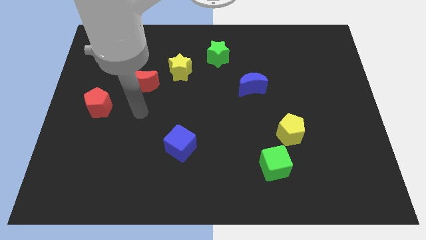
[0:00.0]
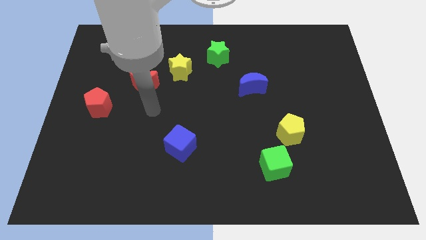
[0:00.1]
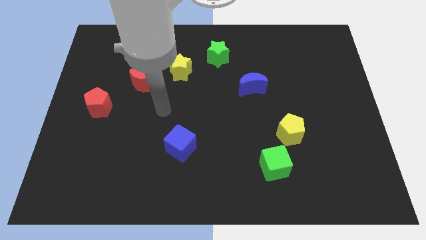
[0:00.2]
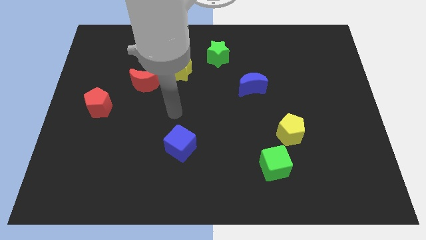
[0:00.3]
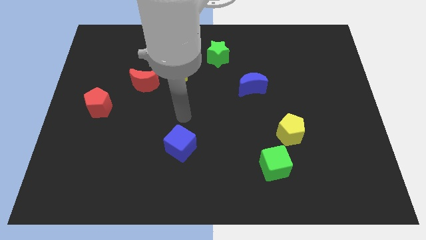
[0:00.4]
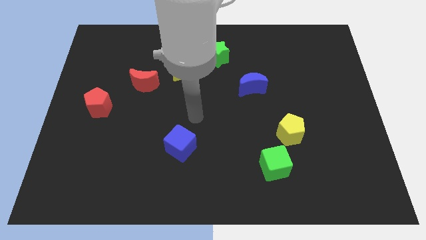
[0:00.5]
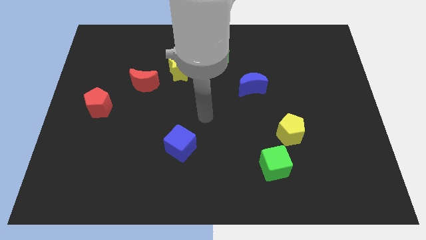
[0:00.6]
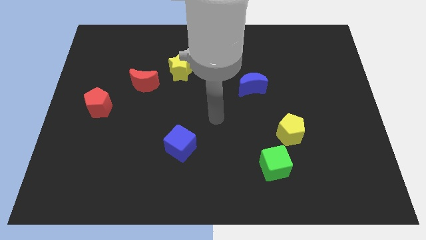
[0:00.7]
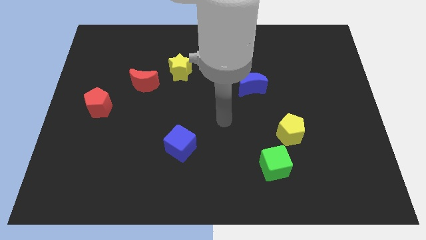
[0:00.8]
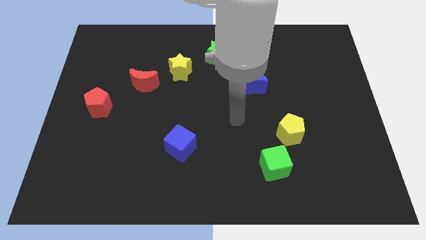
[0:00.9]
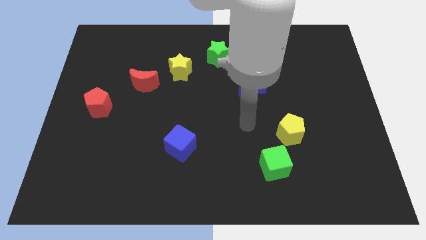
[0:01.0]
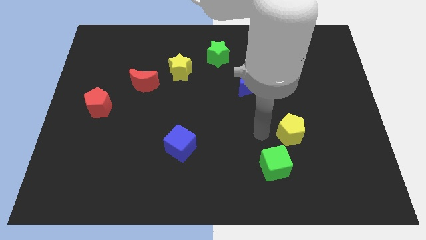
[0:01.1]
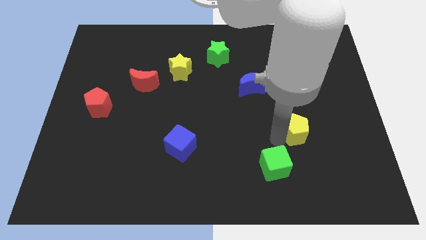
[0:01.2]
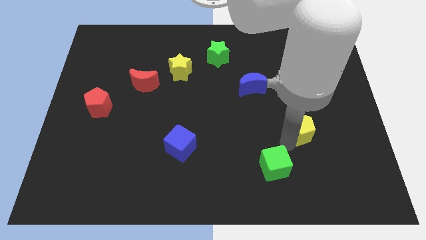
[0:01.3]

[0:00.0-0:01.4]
separate the green cube from the yellow pentagon

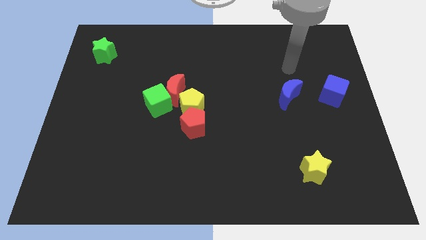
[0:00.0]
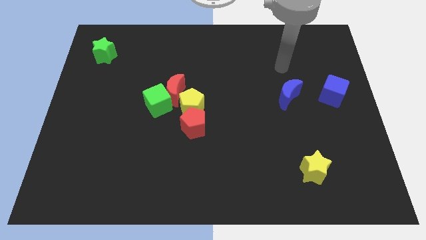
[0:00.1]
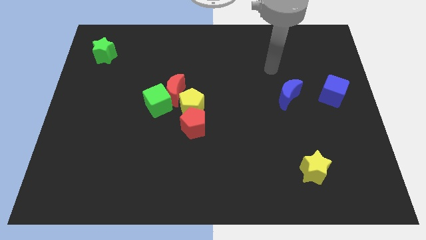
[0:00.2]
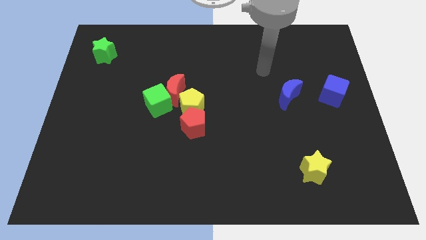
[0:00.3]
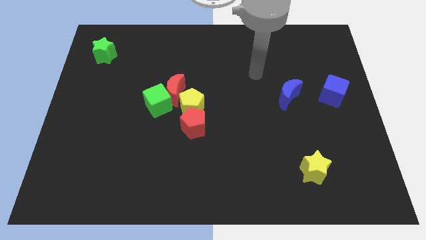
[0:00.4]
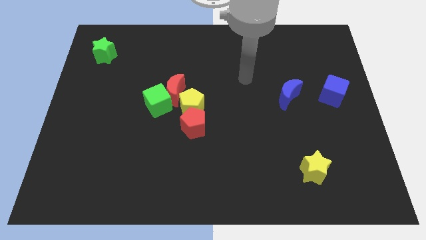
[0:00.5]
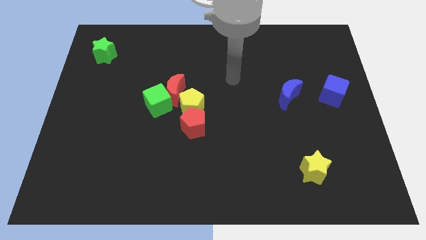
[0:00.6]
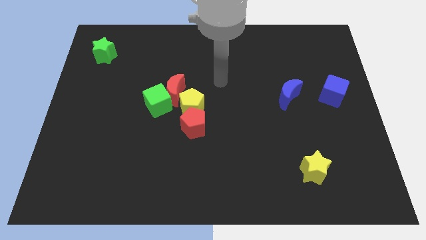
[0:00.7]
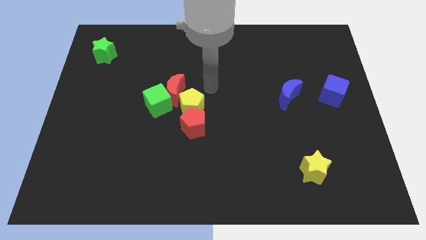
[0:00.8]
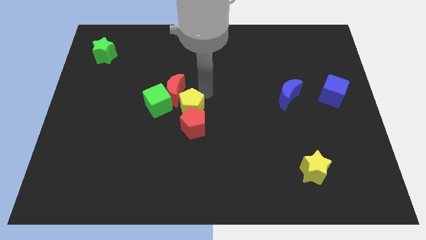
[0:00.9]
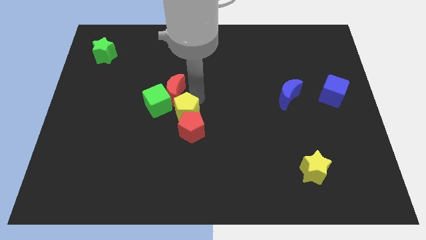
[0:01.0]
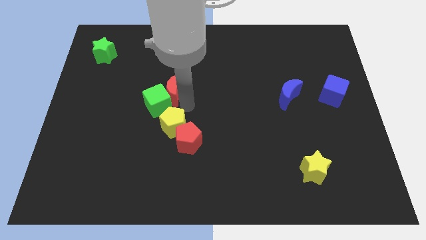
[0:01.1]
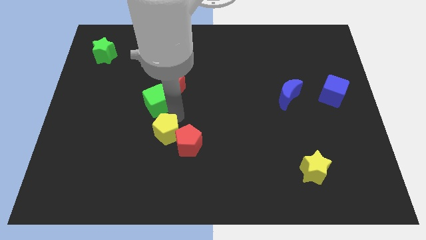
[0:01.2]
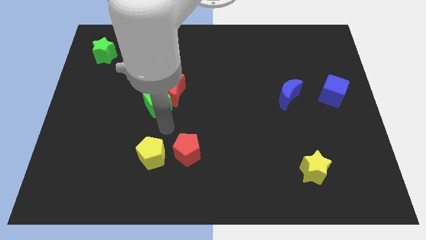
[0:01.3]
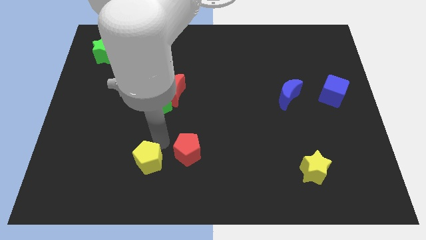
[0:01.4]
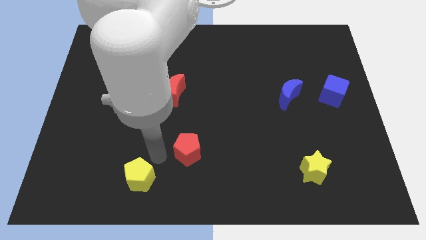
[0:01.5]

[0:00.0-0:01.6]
pull the red pentagon apart from the yellow pentagon

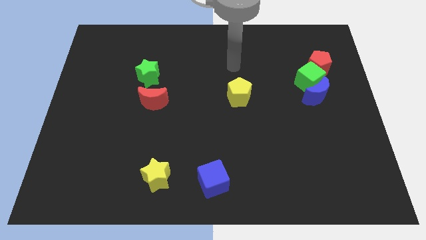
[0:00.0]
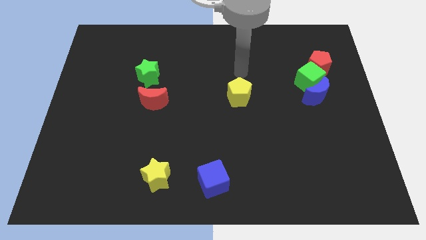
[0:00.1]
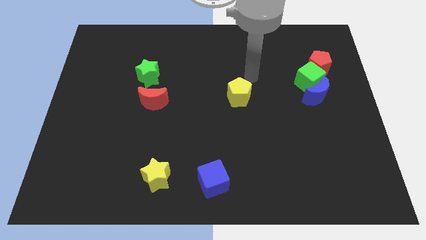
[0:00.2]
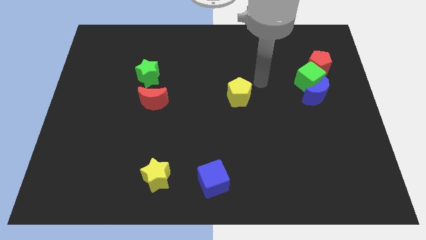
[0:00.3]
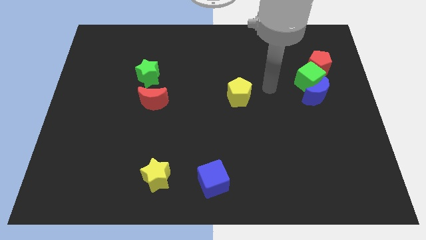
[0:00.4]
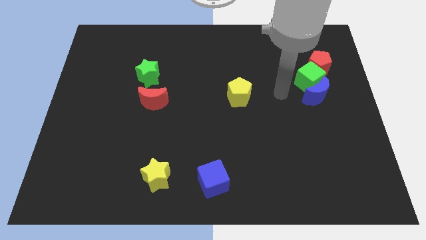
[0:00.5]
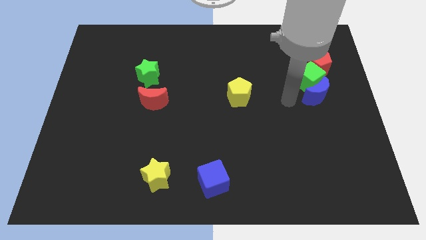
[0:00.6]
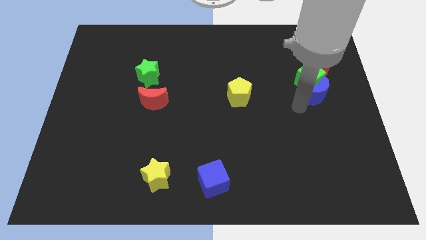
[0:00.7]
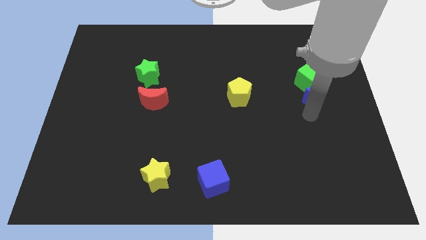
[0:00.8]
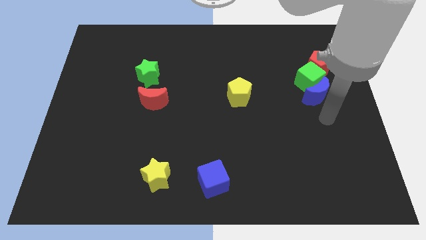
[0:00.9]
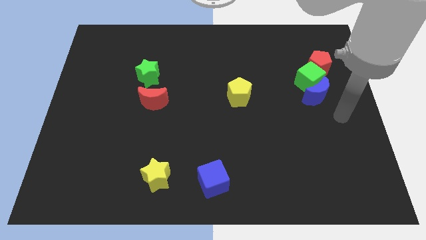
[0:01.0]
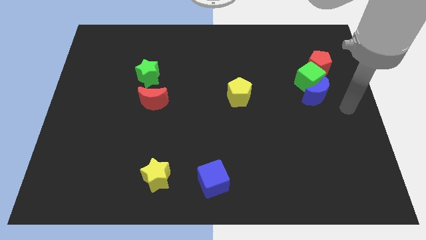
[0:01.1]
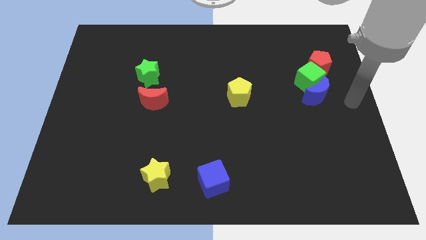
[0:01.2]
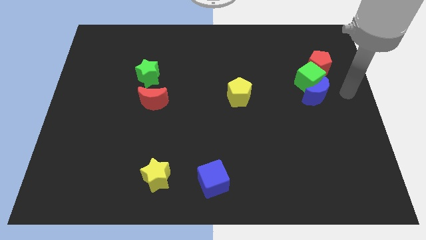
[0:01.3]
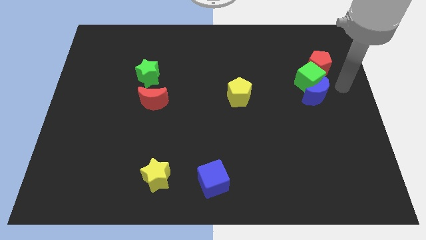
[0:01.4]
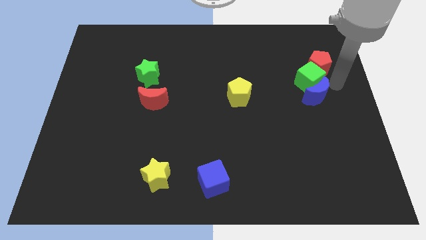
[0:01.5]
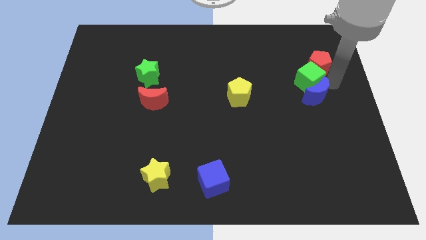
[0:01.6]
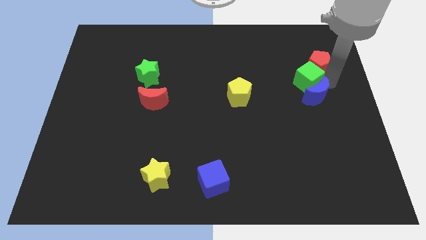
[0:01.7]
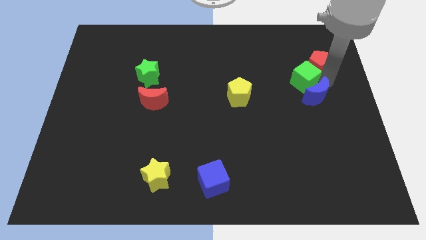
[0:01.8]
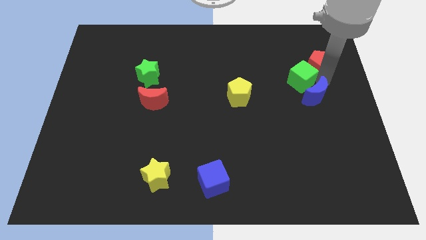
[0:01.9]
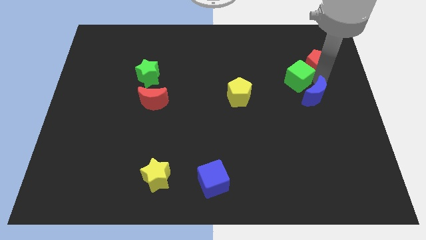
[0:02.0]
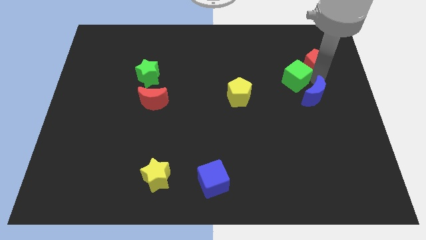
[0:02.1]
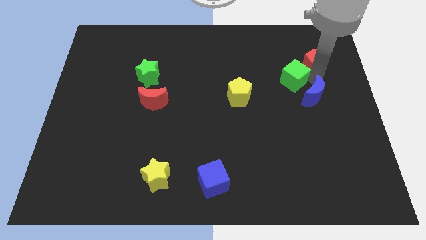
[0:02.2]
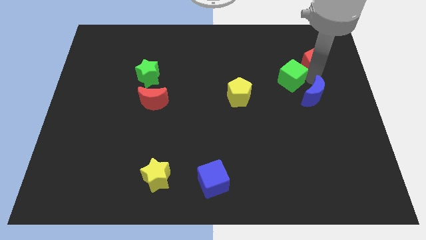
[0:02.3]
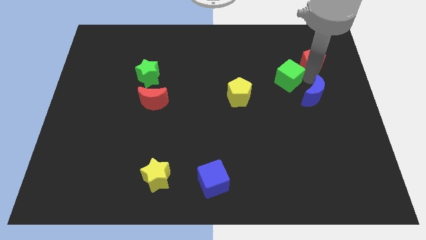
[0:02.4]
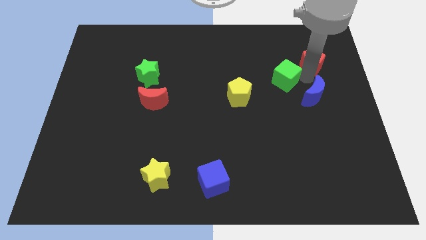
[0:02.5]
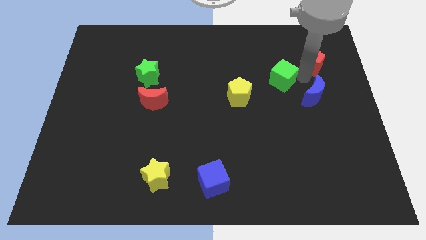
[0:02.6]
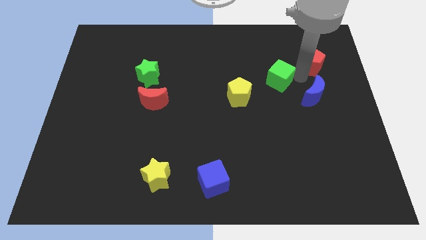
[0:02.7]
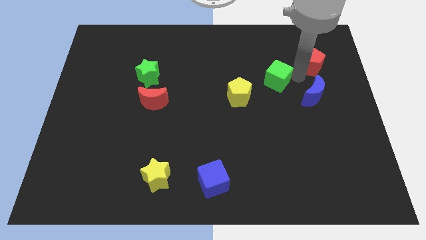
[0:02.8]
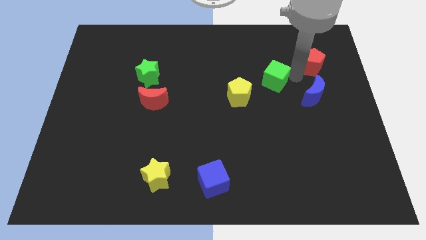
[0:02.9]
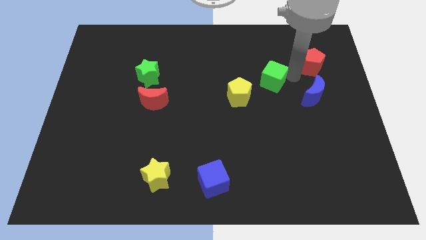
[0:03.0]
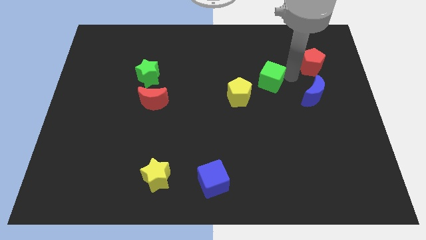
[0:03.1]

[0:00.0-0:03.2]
separate the green cube from the blue moon and red pentagon

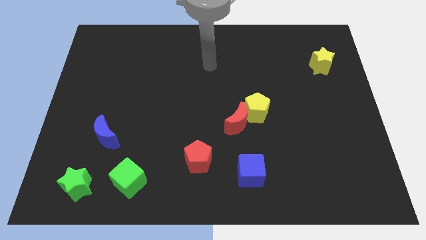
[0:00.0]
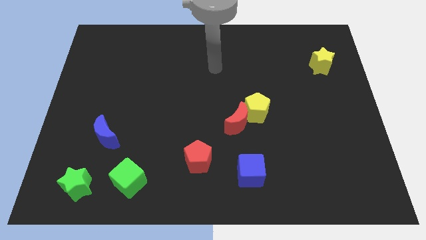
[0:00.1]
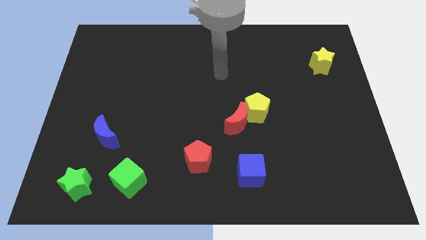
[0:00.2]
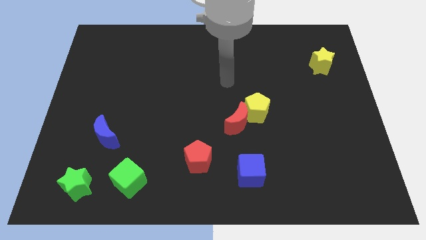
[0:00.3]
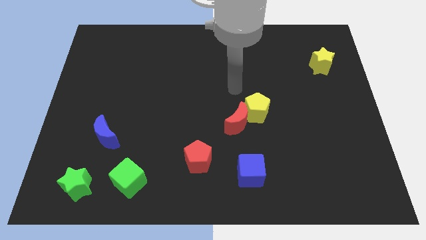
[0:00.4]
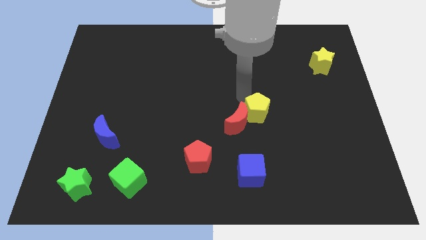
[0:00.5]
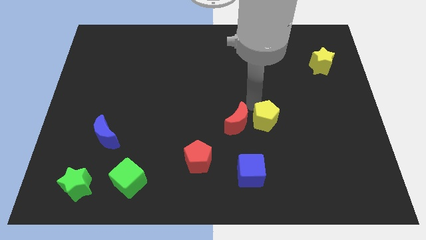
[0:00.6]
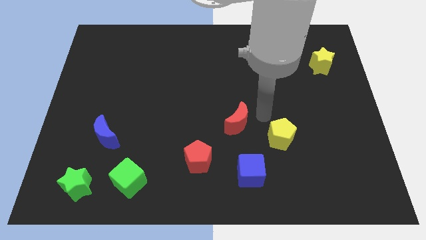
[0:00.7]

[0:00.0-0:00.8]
pull the red moon apart from the yellow pentagon

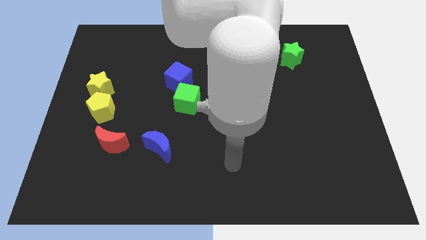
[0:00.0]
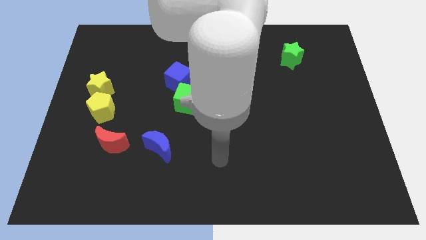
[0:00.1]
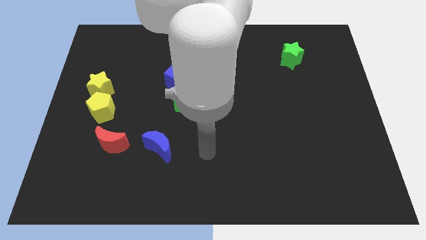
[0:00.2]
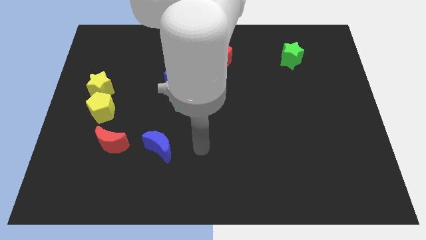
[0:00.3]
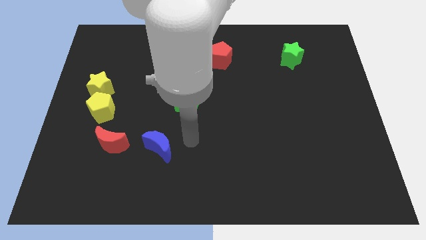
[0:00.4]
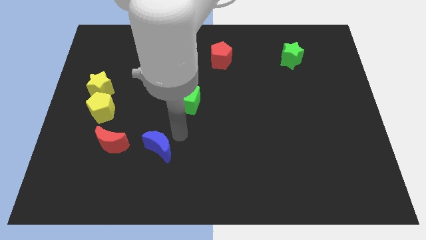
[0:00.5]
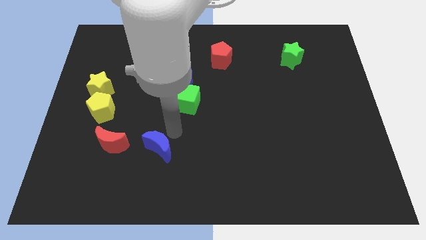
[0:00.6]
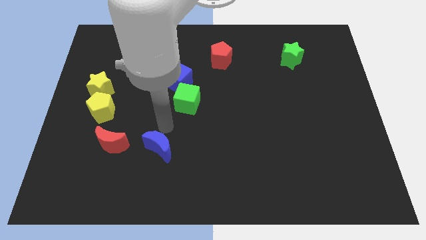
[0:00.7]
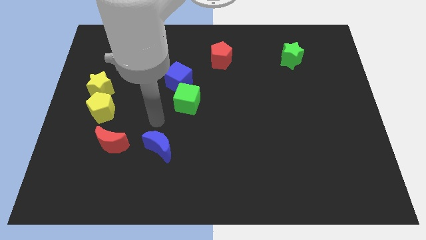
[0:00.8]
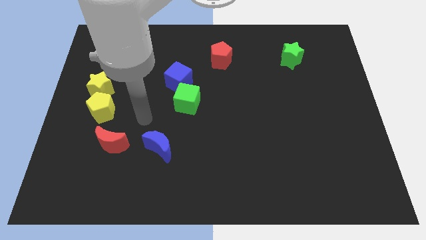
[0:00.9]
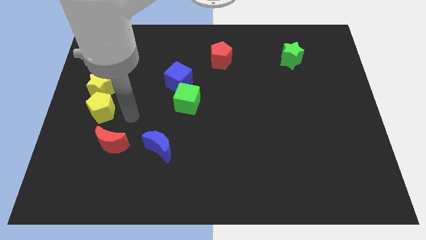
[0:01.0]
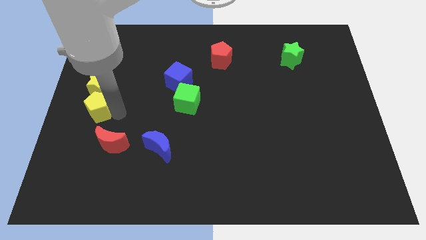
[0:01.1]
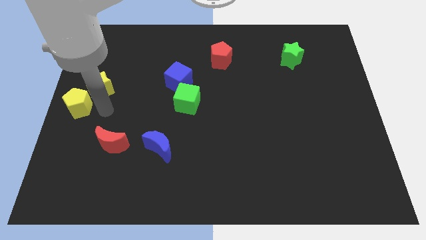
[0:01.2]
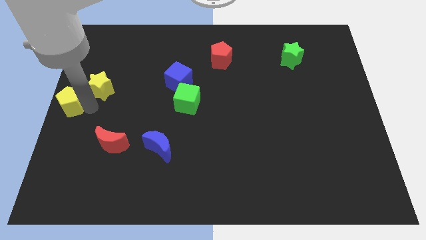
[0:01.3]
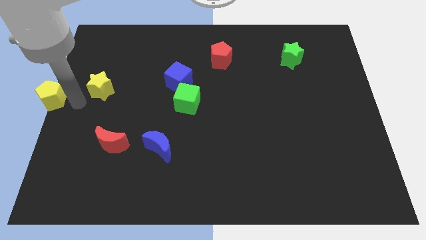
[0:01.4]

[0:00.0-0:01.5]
pull the yellow star apart from the yellow pentagon

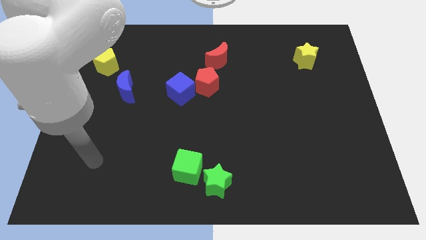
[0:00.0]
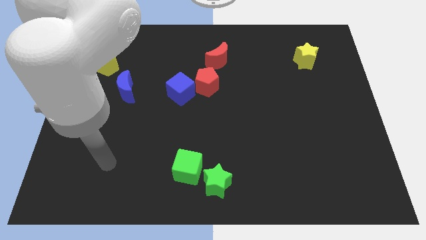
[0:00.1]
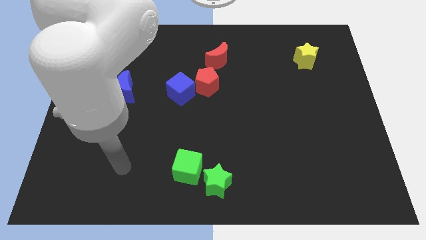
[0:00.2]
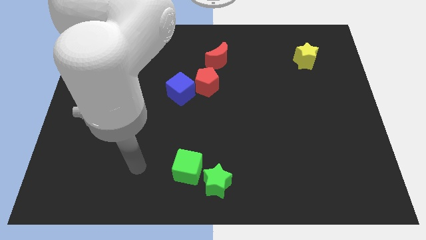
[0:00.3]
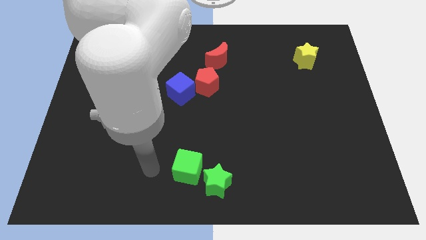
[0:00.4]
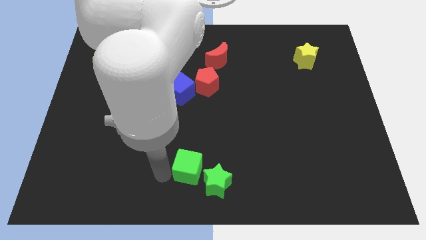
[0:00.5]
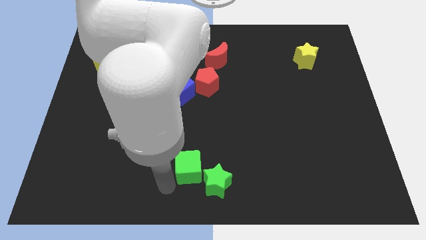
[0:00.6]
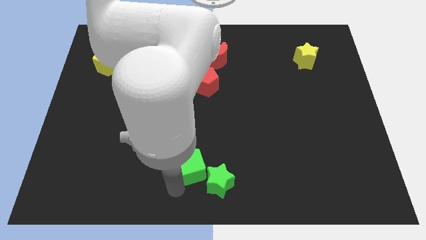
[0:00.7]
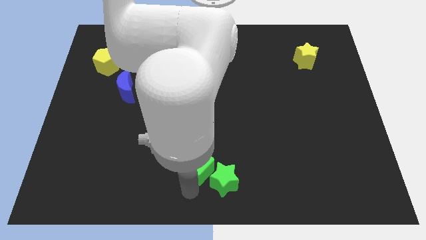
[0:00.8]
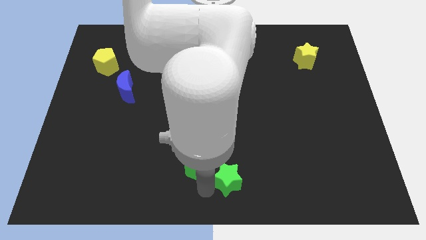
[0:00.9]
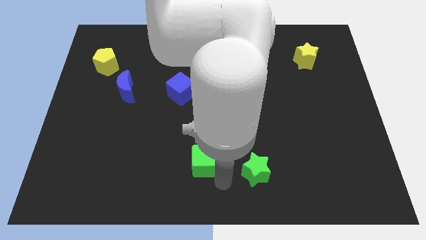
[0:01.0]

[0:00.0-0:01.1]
pull the green cube apart from the green star
